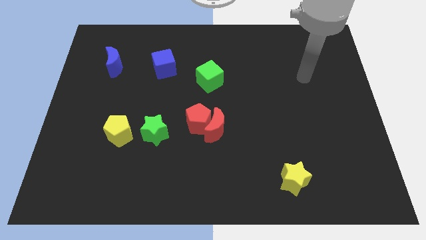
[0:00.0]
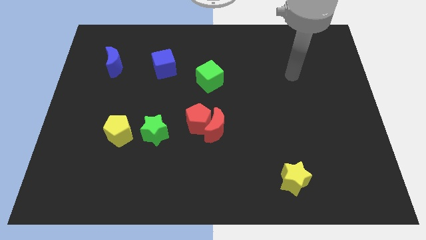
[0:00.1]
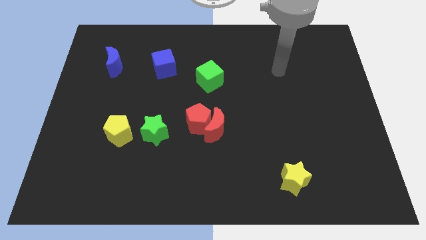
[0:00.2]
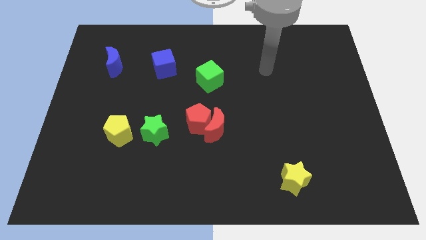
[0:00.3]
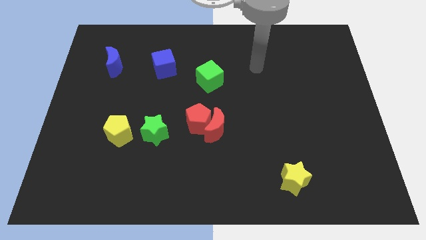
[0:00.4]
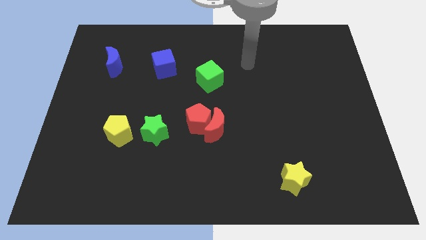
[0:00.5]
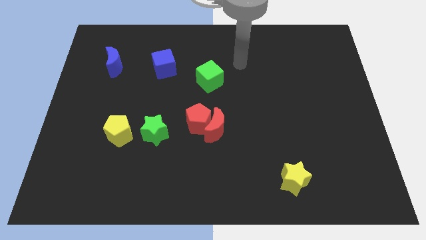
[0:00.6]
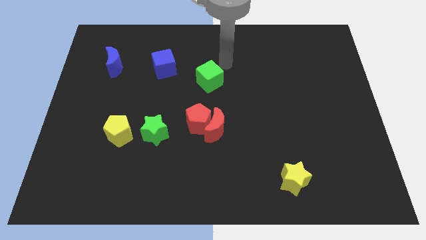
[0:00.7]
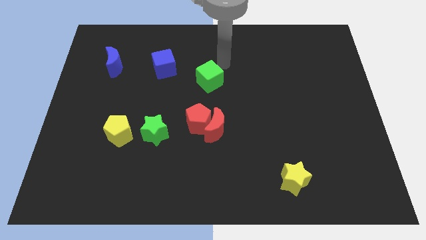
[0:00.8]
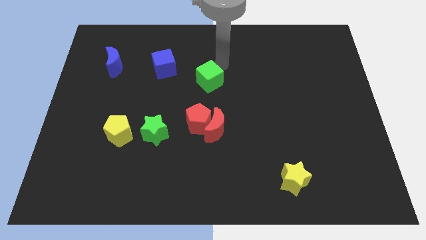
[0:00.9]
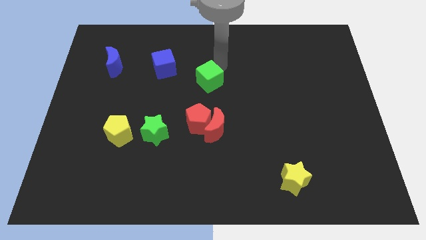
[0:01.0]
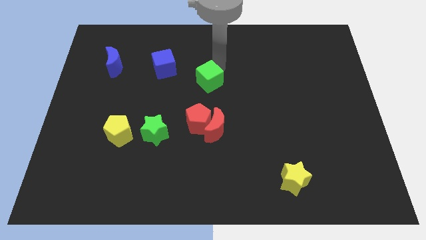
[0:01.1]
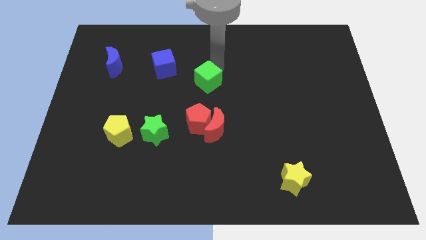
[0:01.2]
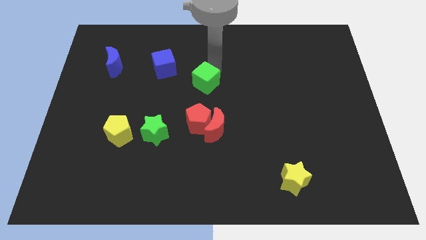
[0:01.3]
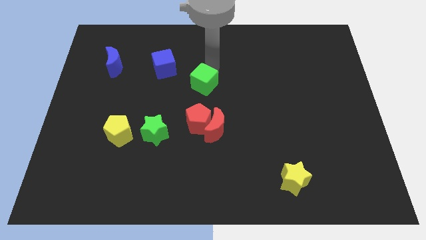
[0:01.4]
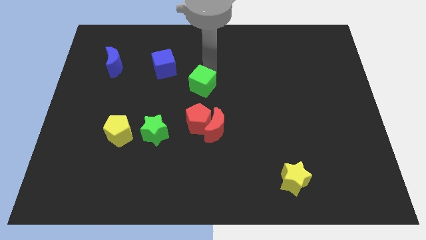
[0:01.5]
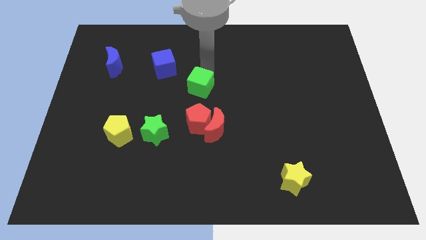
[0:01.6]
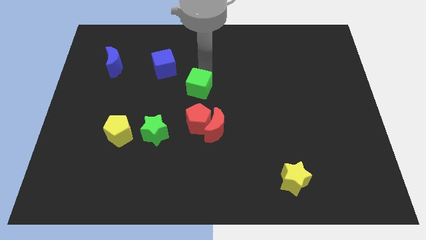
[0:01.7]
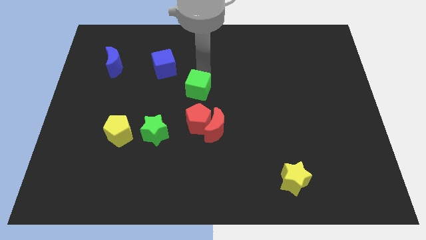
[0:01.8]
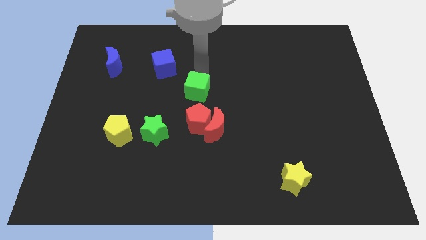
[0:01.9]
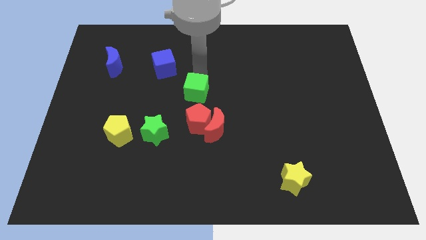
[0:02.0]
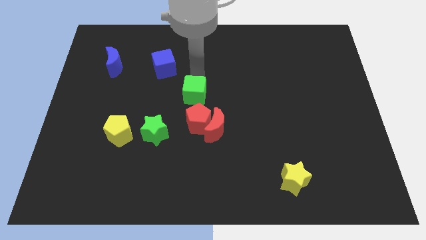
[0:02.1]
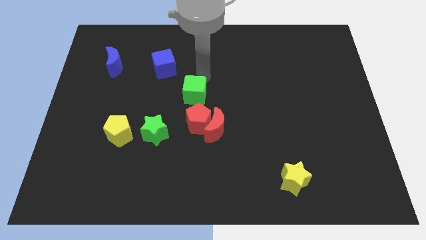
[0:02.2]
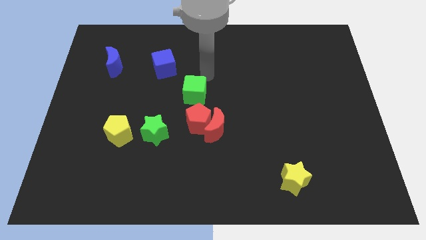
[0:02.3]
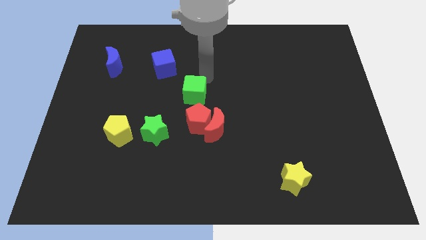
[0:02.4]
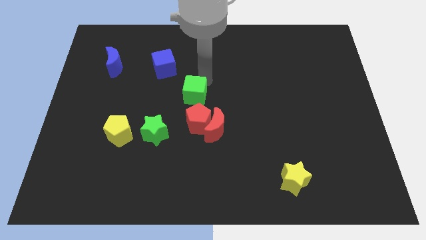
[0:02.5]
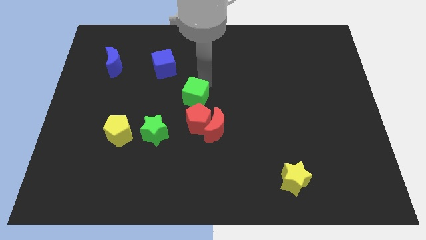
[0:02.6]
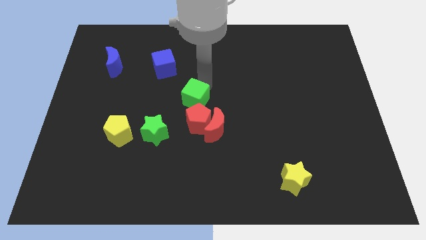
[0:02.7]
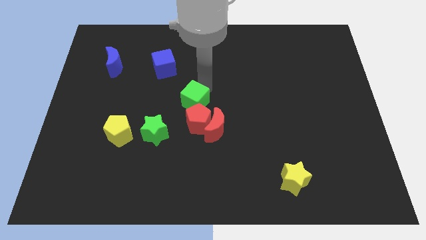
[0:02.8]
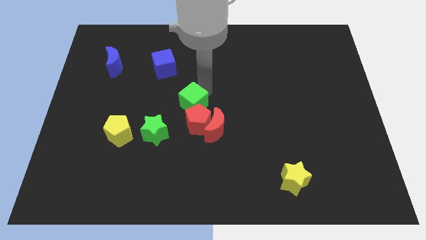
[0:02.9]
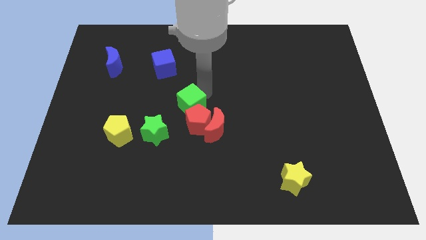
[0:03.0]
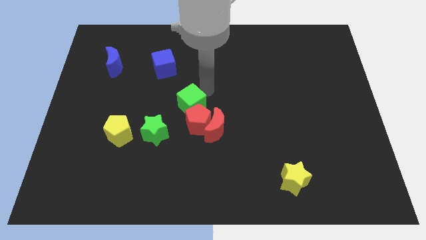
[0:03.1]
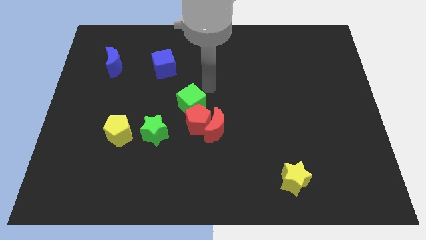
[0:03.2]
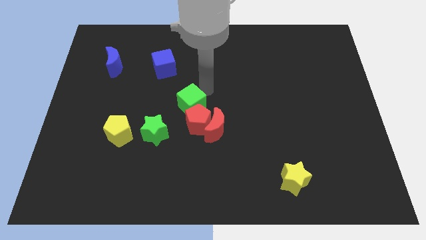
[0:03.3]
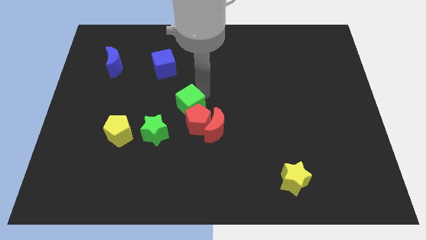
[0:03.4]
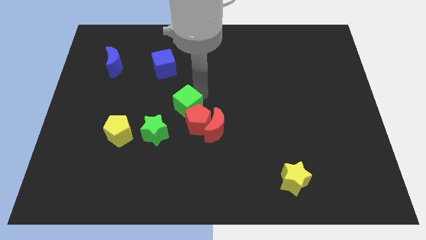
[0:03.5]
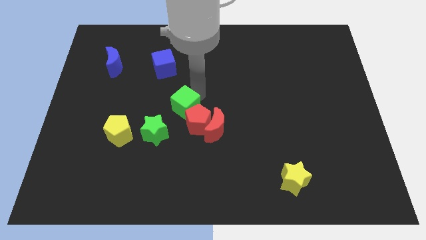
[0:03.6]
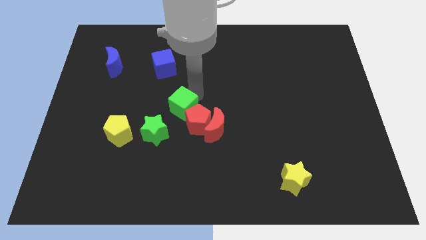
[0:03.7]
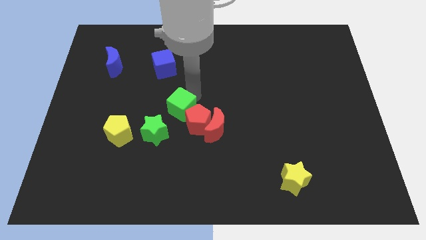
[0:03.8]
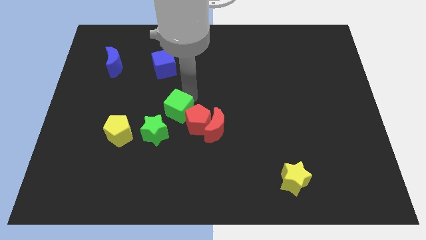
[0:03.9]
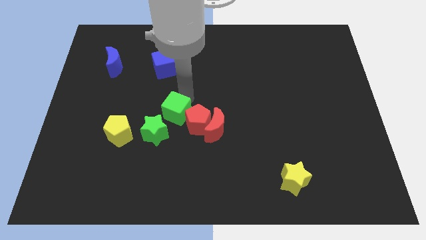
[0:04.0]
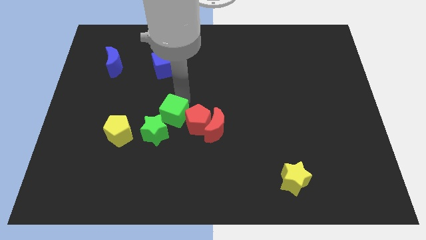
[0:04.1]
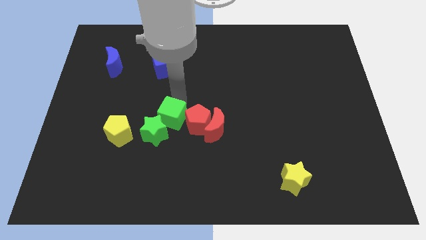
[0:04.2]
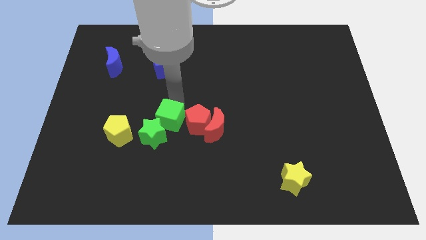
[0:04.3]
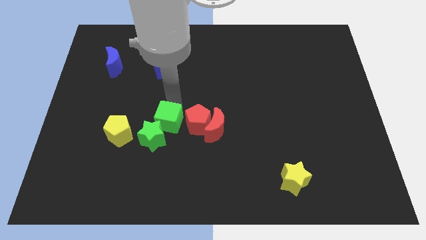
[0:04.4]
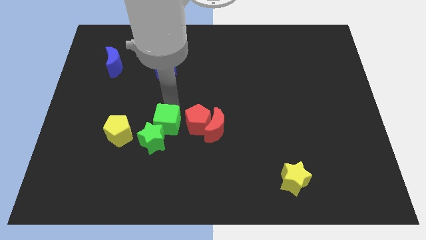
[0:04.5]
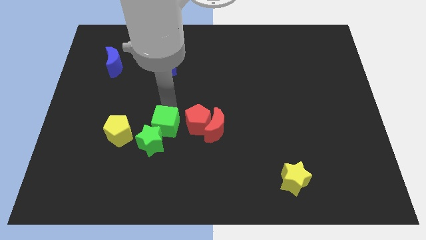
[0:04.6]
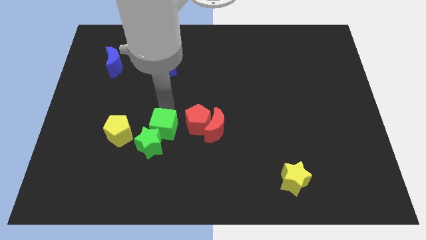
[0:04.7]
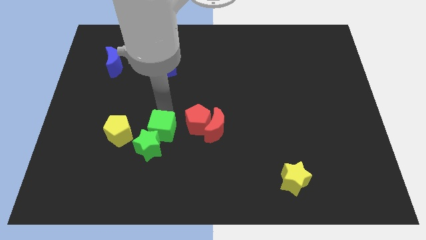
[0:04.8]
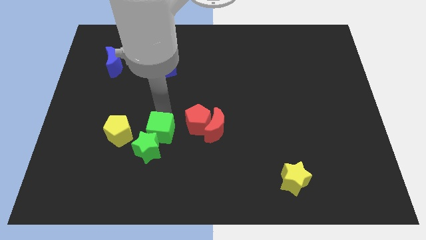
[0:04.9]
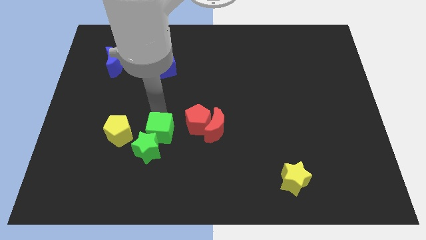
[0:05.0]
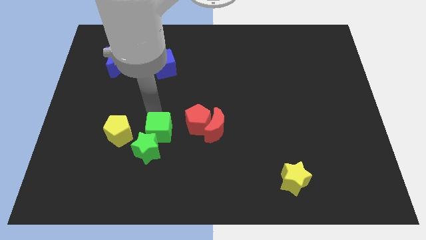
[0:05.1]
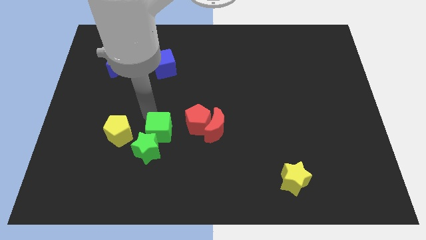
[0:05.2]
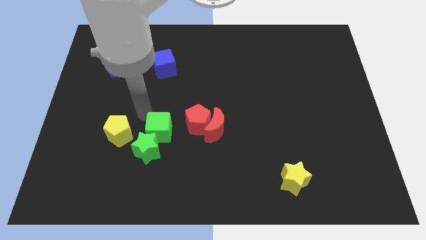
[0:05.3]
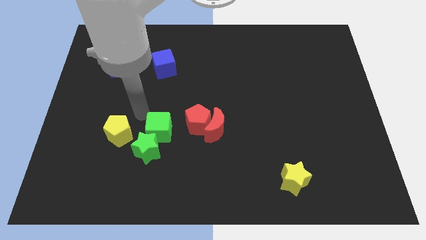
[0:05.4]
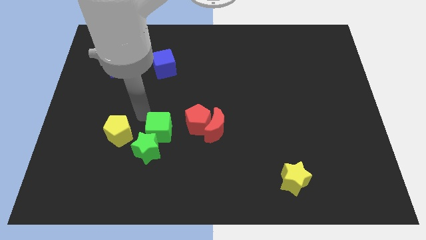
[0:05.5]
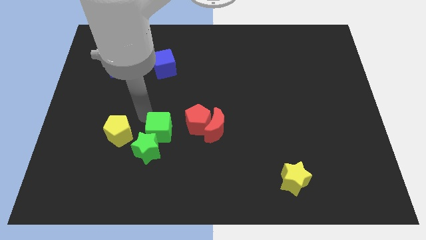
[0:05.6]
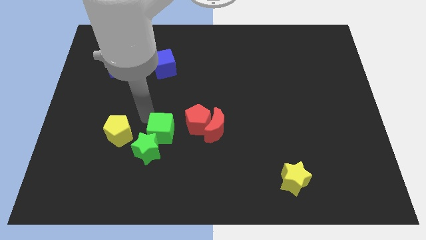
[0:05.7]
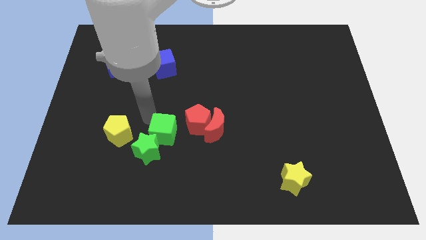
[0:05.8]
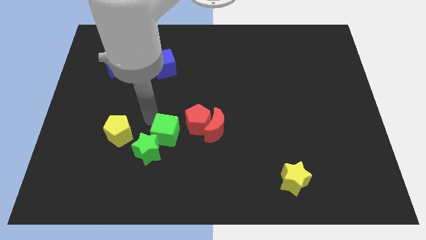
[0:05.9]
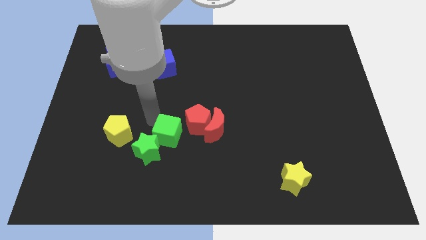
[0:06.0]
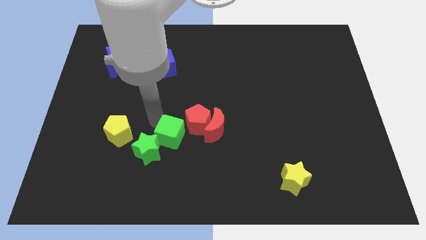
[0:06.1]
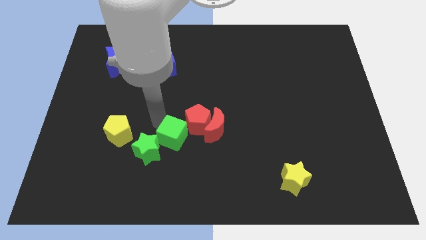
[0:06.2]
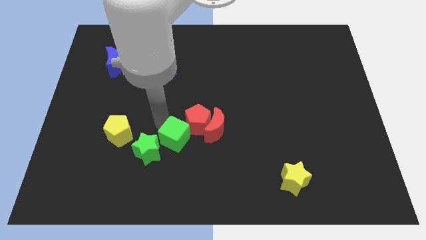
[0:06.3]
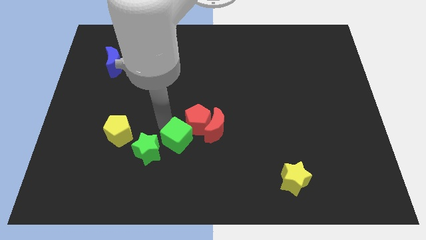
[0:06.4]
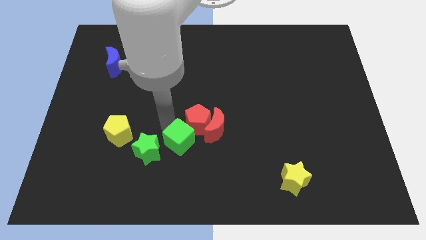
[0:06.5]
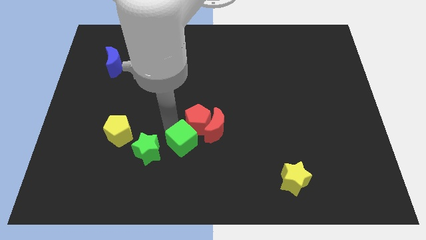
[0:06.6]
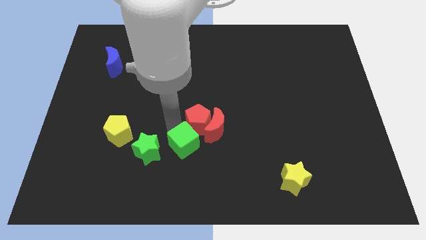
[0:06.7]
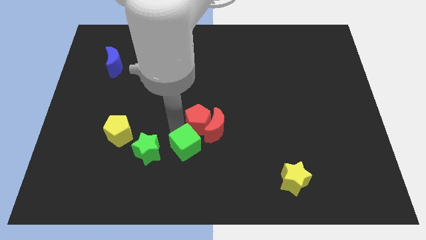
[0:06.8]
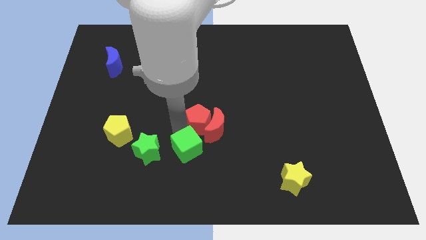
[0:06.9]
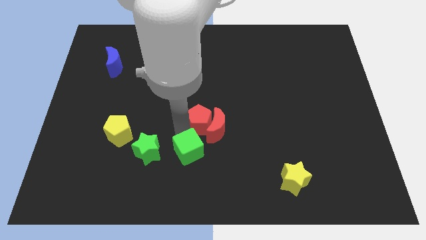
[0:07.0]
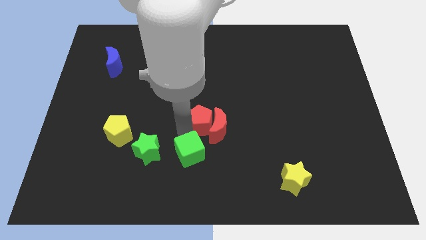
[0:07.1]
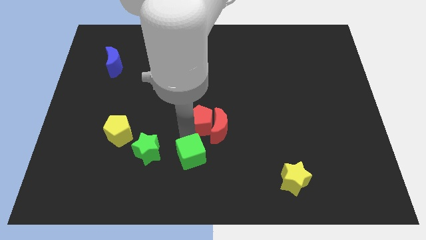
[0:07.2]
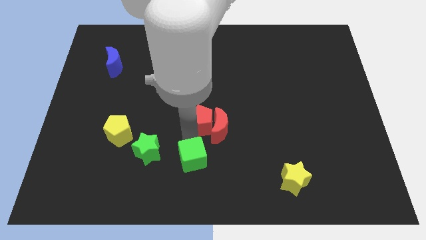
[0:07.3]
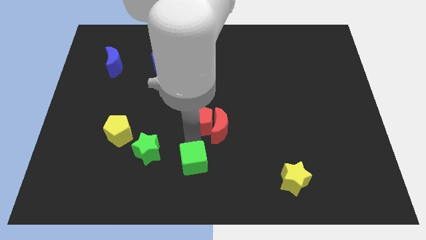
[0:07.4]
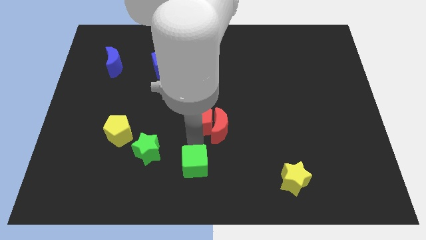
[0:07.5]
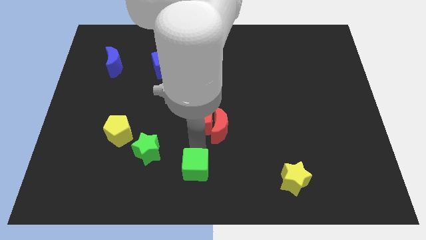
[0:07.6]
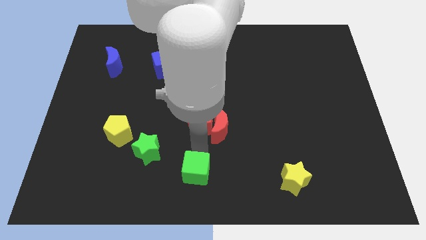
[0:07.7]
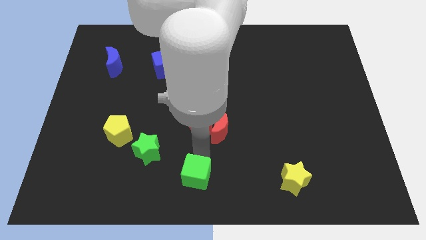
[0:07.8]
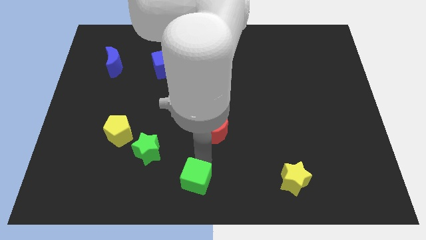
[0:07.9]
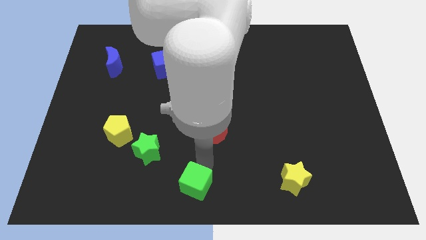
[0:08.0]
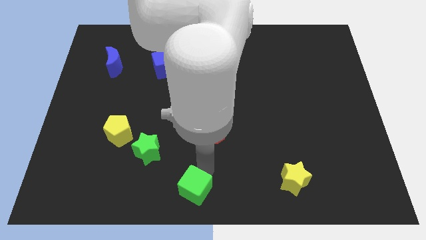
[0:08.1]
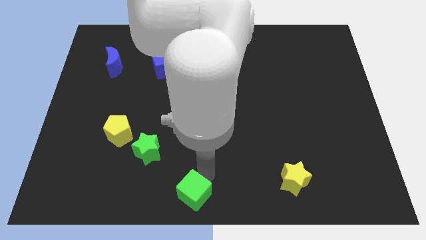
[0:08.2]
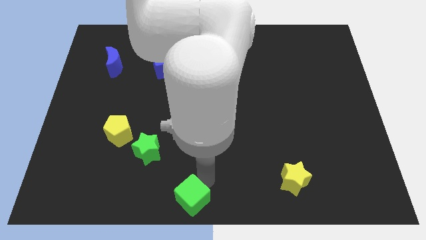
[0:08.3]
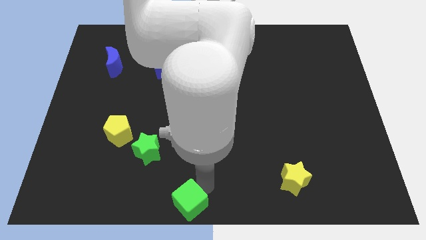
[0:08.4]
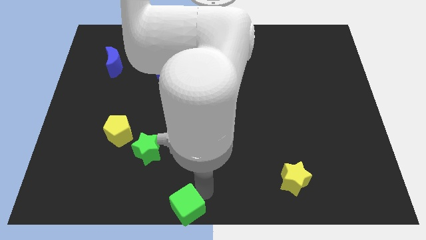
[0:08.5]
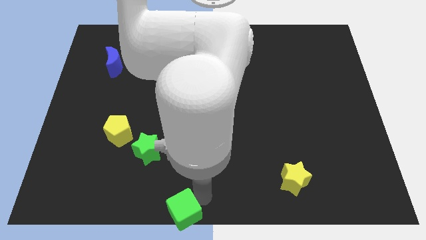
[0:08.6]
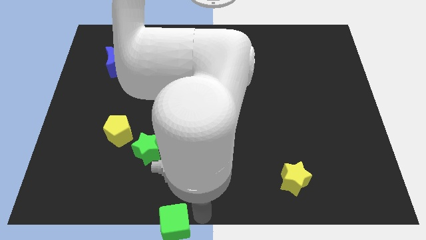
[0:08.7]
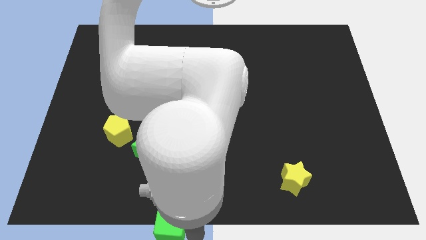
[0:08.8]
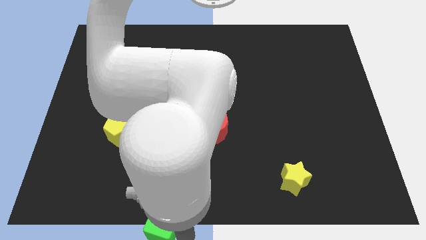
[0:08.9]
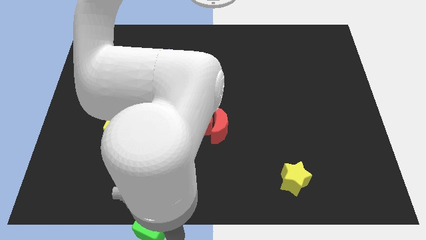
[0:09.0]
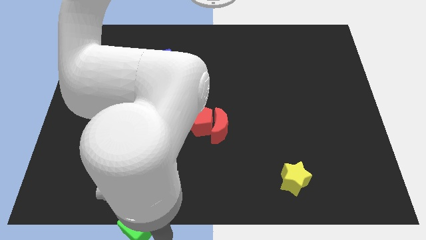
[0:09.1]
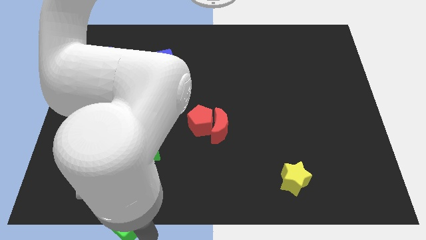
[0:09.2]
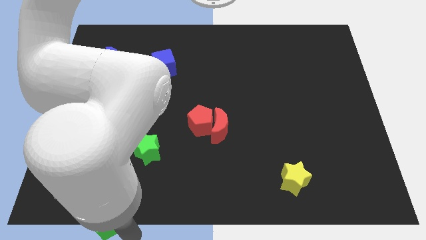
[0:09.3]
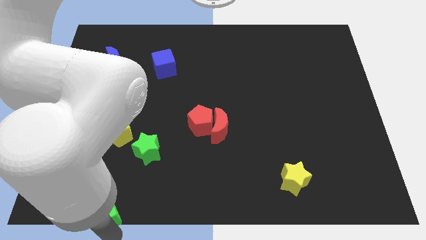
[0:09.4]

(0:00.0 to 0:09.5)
move the green cube downwards and to the left
